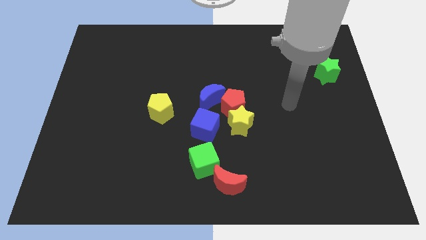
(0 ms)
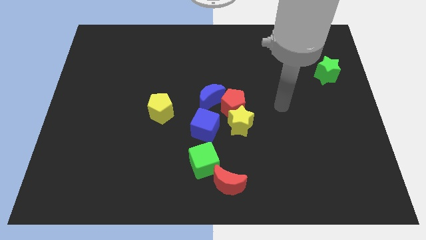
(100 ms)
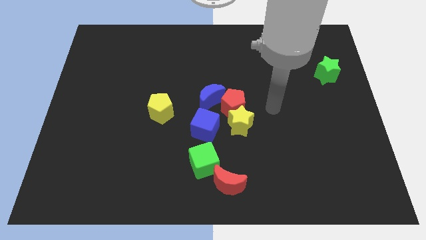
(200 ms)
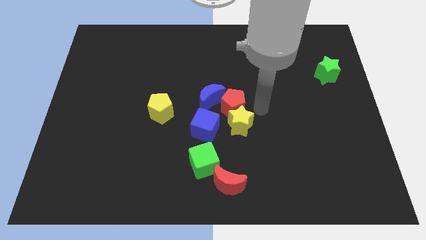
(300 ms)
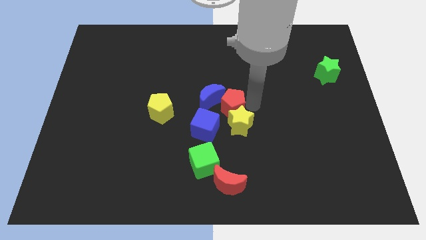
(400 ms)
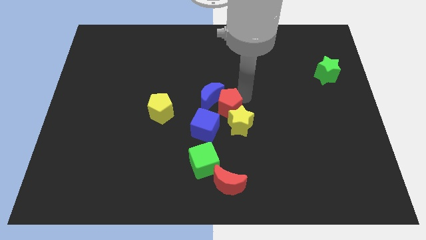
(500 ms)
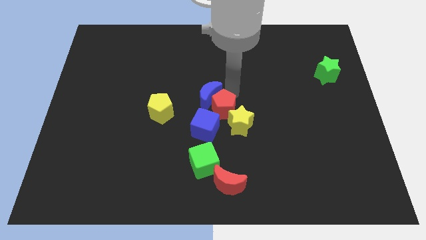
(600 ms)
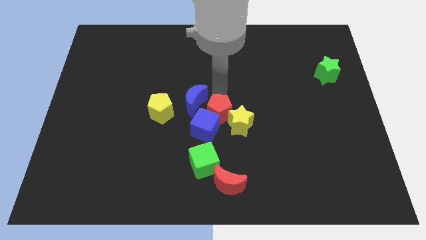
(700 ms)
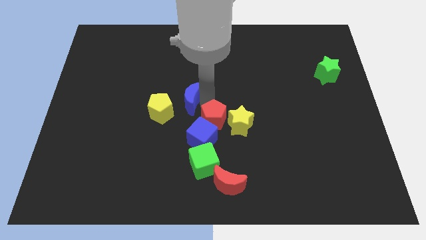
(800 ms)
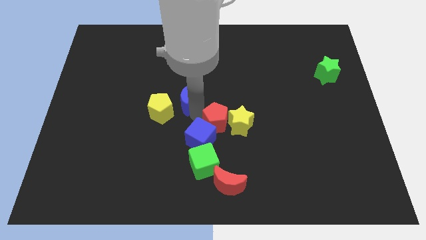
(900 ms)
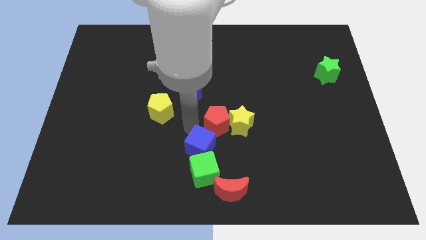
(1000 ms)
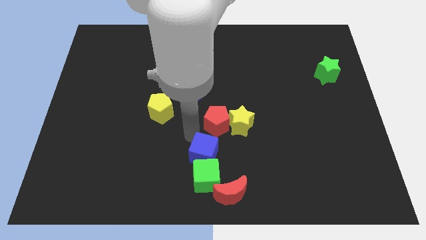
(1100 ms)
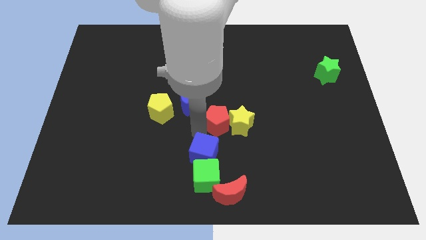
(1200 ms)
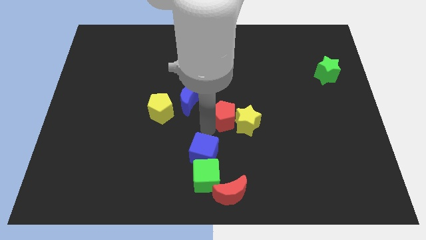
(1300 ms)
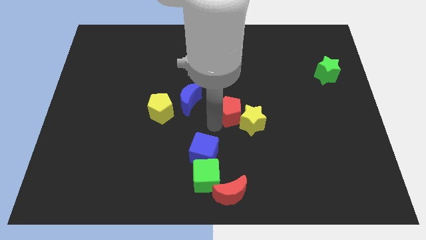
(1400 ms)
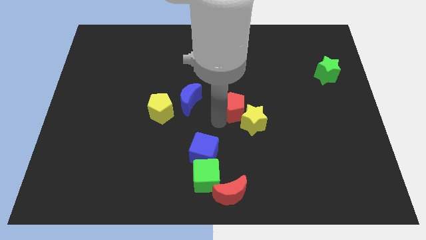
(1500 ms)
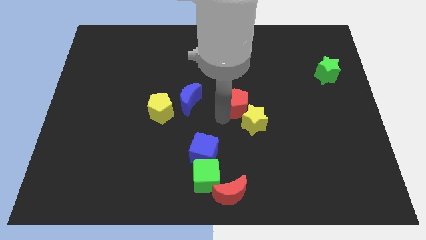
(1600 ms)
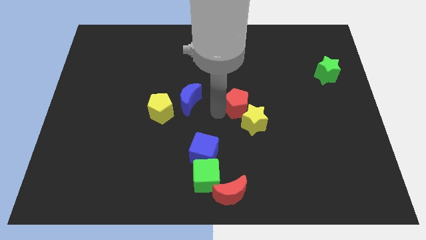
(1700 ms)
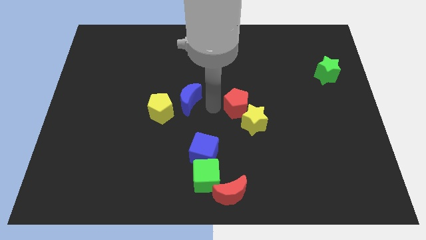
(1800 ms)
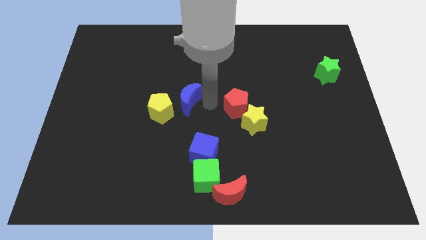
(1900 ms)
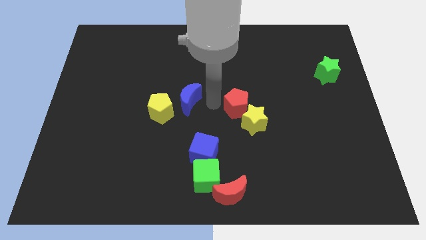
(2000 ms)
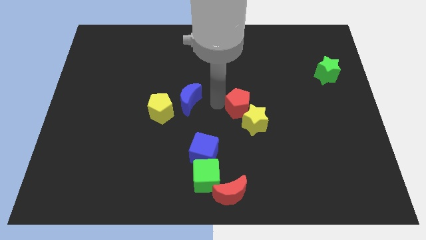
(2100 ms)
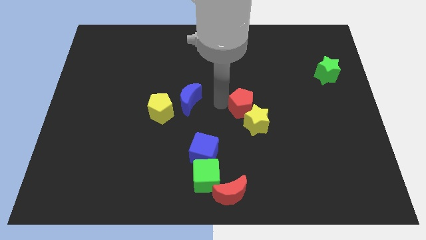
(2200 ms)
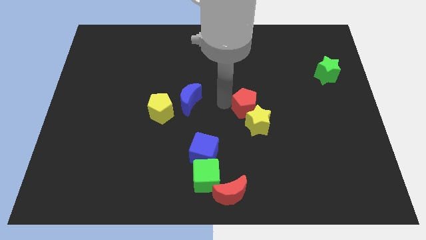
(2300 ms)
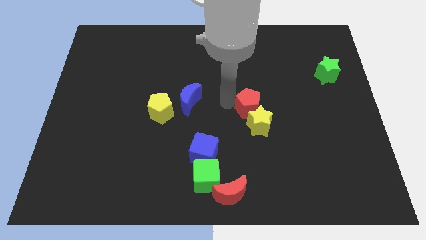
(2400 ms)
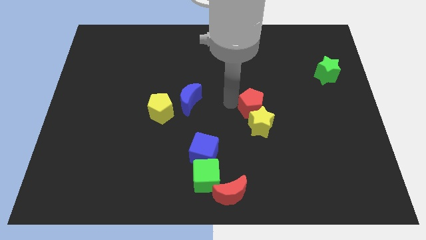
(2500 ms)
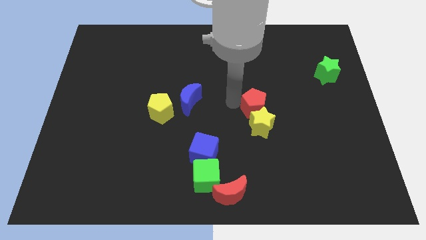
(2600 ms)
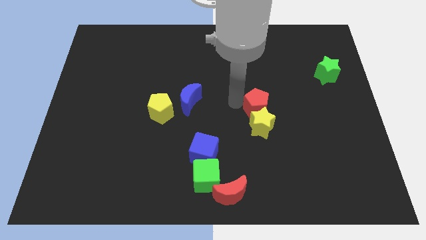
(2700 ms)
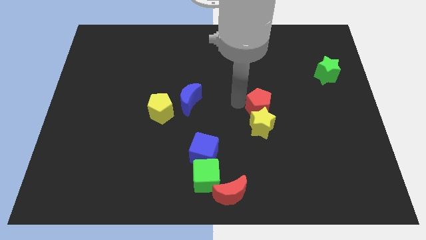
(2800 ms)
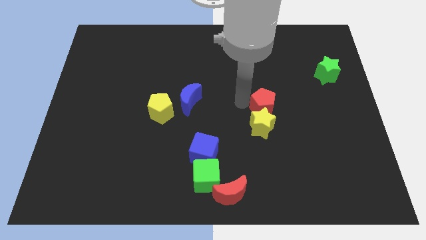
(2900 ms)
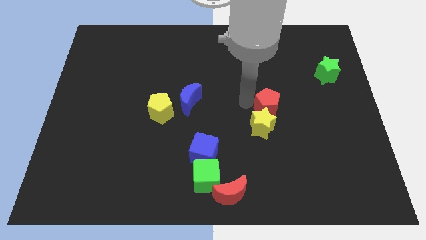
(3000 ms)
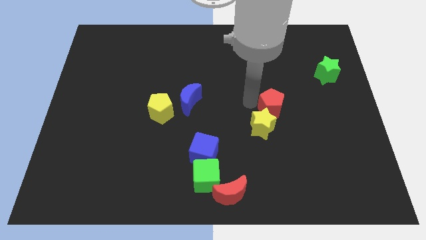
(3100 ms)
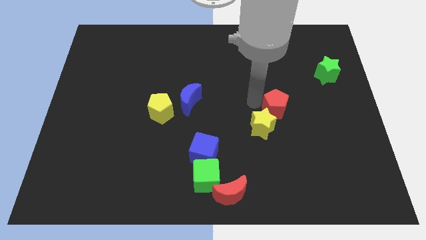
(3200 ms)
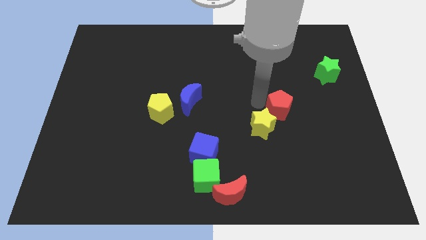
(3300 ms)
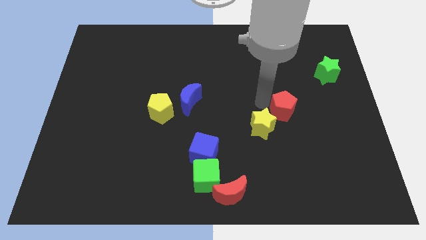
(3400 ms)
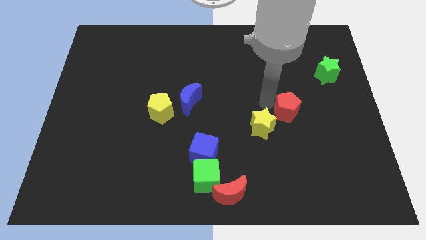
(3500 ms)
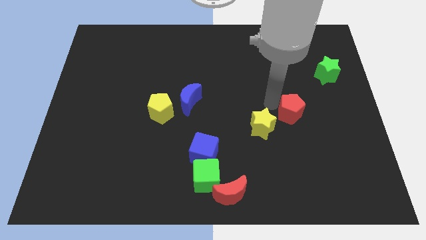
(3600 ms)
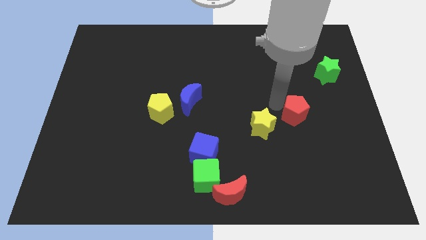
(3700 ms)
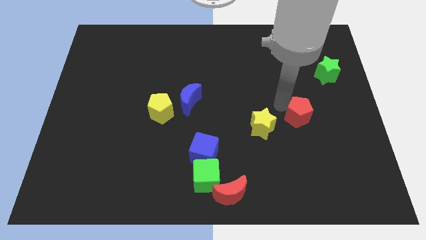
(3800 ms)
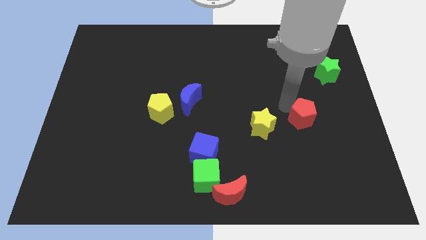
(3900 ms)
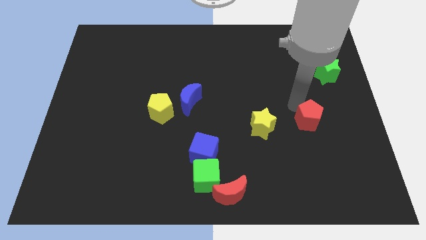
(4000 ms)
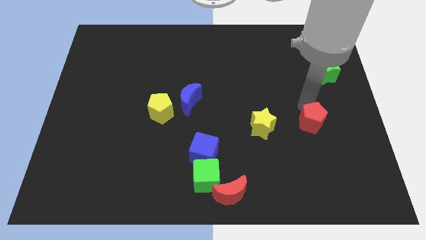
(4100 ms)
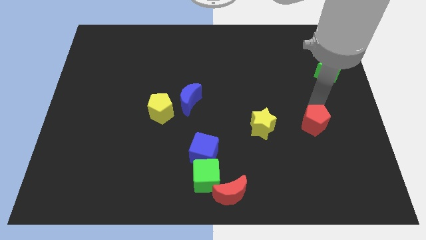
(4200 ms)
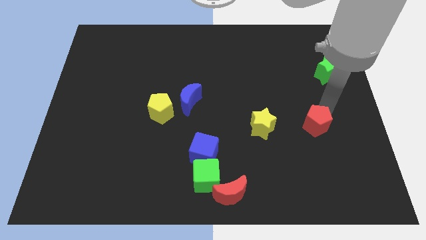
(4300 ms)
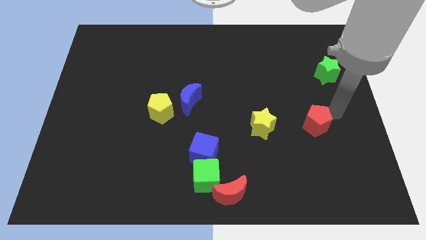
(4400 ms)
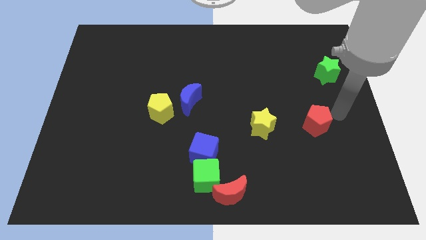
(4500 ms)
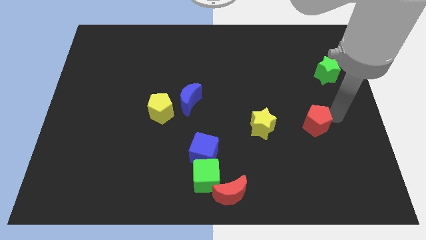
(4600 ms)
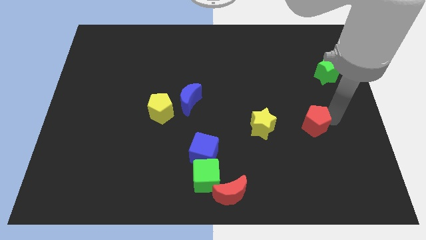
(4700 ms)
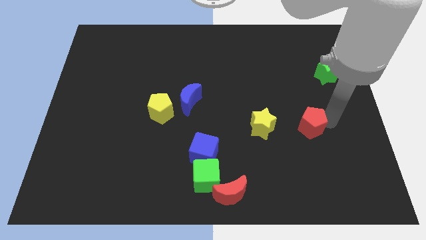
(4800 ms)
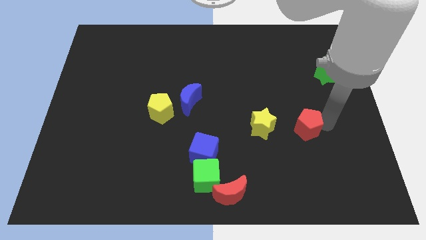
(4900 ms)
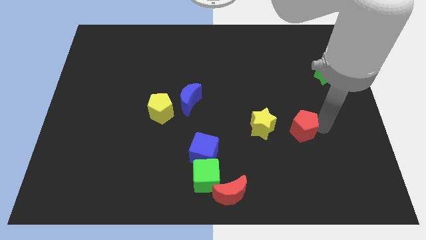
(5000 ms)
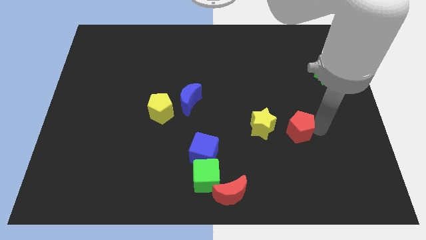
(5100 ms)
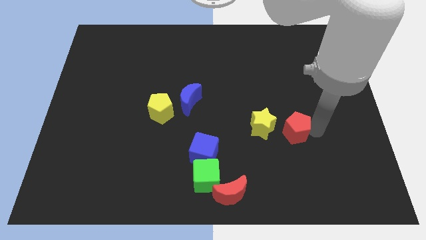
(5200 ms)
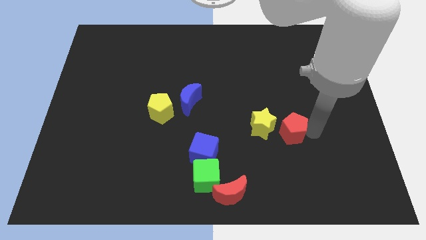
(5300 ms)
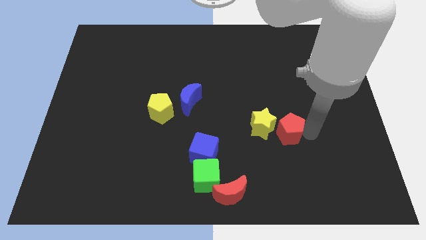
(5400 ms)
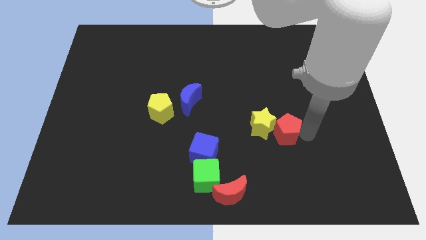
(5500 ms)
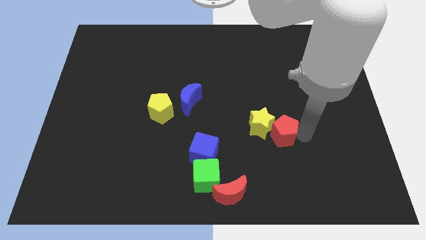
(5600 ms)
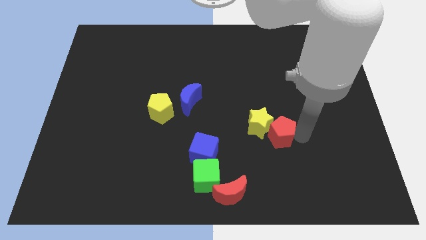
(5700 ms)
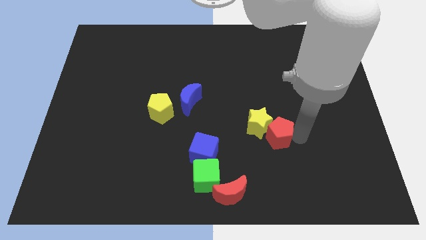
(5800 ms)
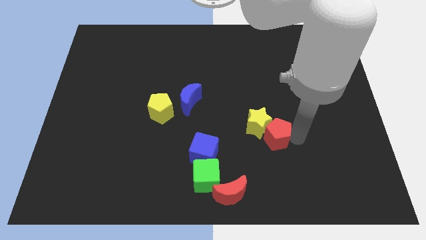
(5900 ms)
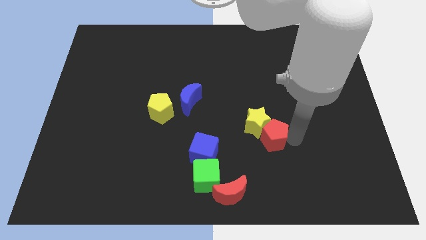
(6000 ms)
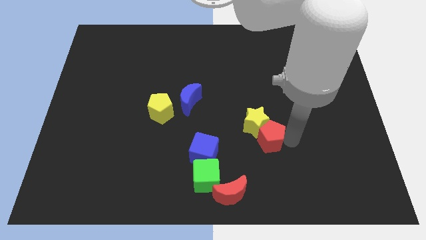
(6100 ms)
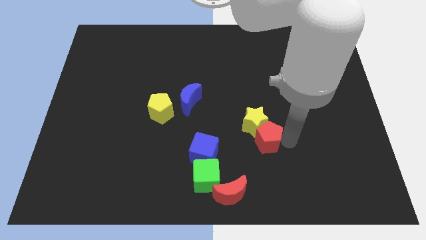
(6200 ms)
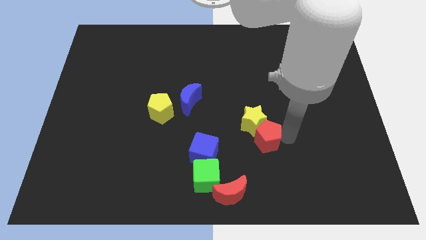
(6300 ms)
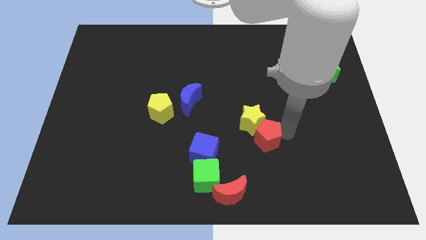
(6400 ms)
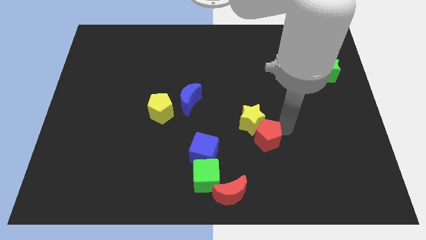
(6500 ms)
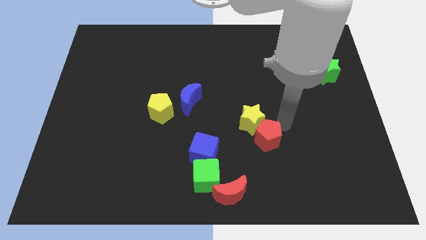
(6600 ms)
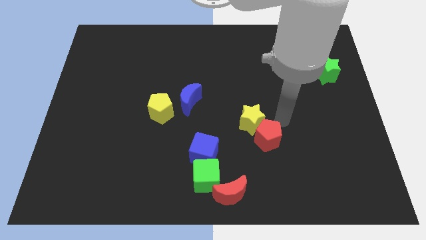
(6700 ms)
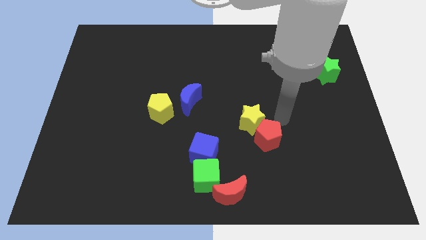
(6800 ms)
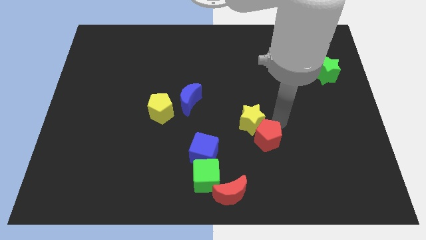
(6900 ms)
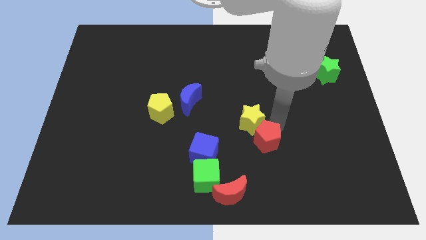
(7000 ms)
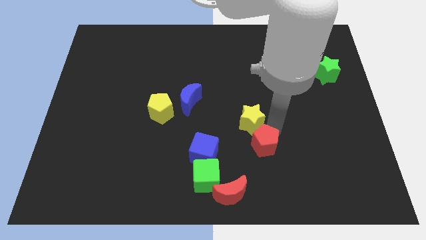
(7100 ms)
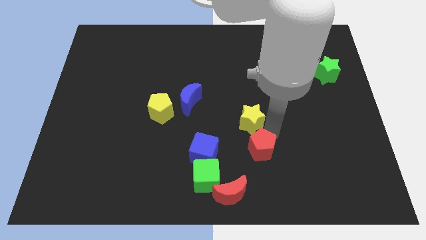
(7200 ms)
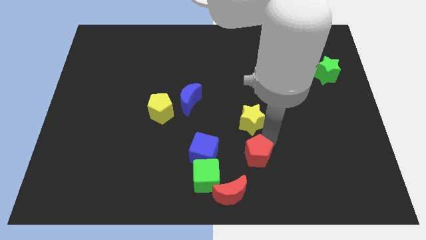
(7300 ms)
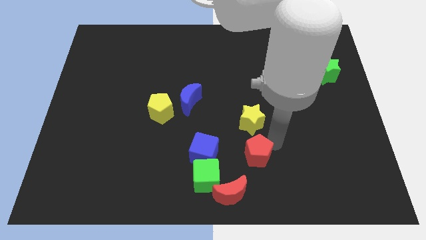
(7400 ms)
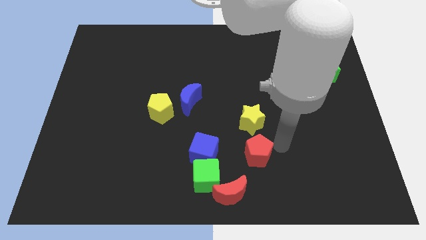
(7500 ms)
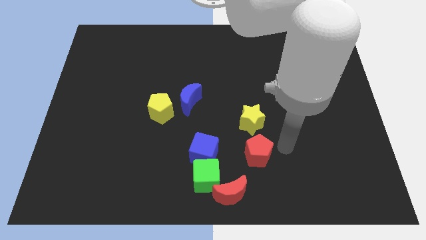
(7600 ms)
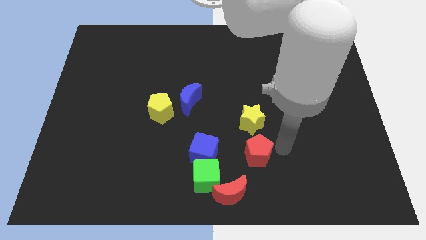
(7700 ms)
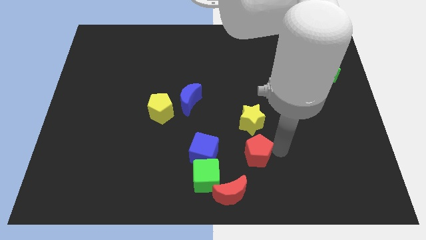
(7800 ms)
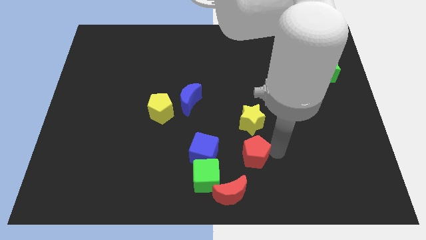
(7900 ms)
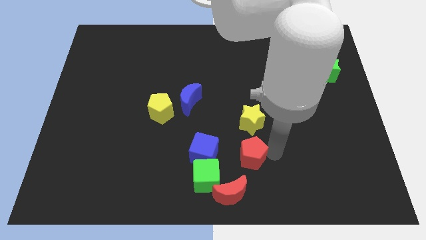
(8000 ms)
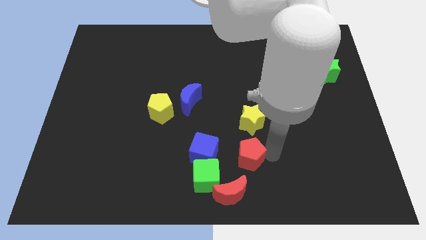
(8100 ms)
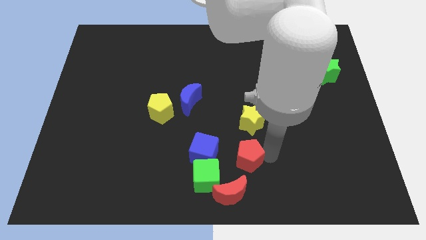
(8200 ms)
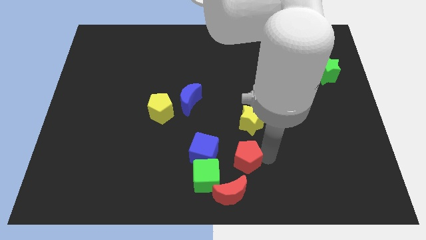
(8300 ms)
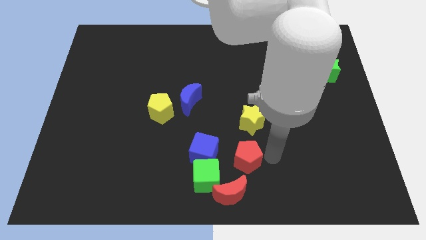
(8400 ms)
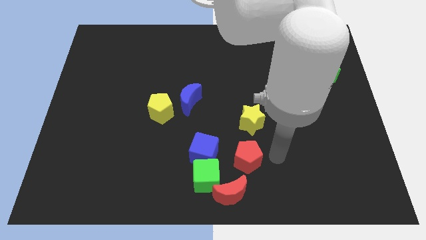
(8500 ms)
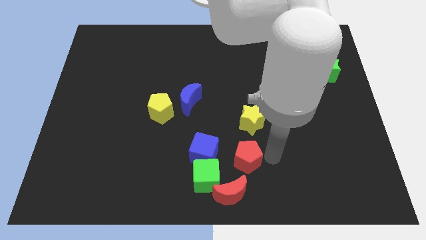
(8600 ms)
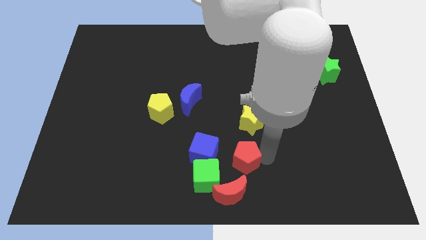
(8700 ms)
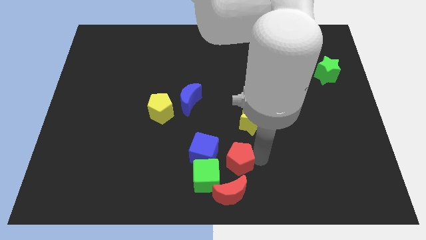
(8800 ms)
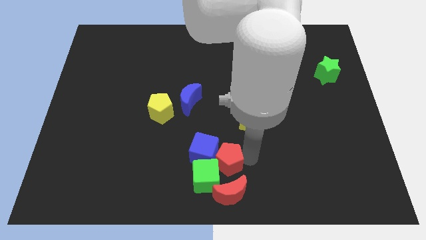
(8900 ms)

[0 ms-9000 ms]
push the red pentagon towards the green cube
